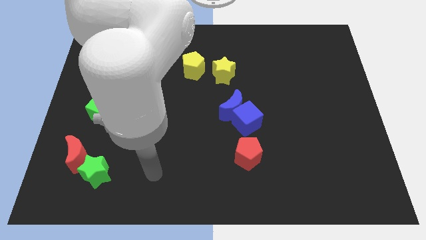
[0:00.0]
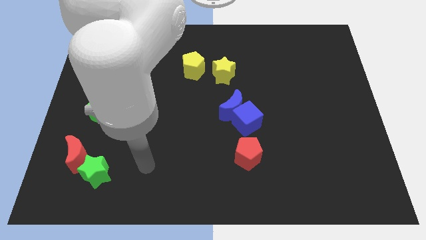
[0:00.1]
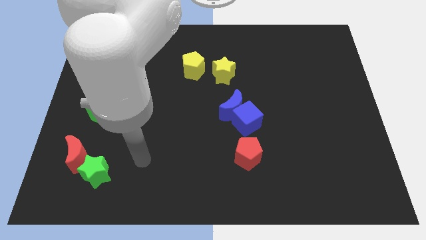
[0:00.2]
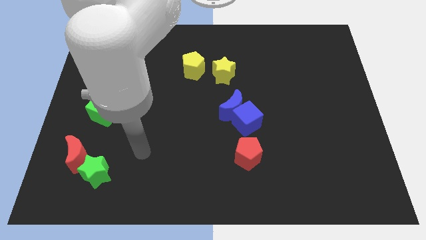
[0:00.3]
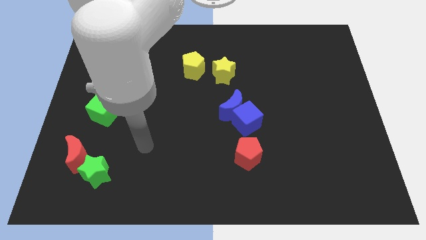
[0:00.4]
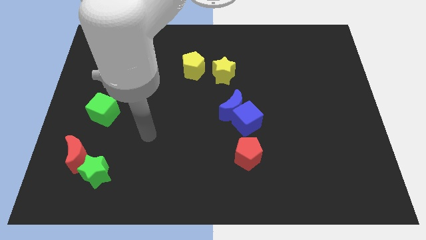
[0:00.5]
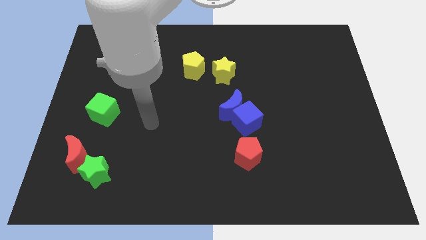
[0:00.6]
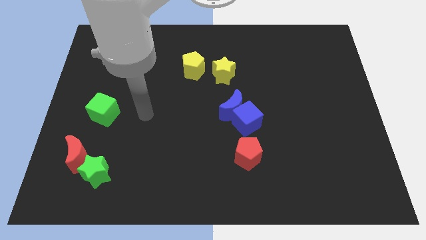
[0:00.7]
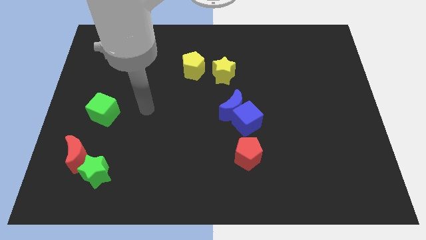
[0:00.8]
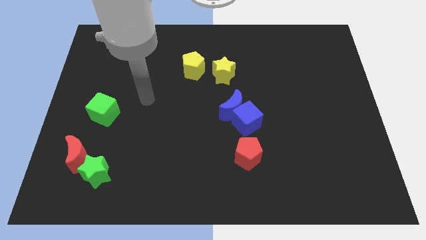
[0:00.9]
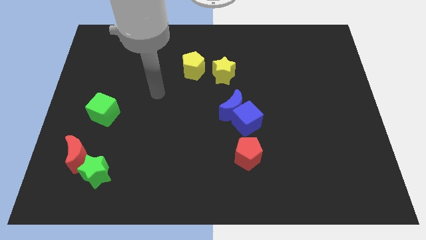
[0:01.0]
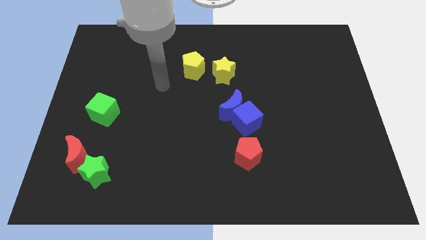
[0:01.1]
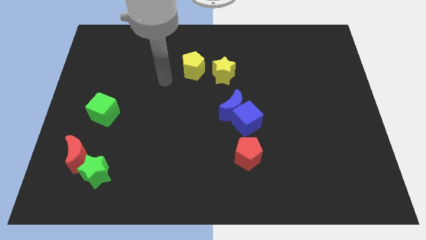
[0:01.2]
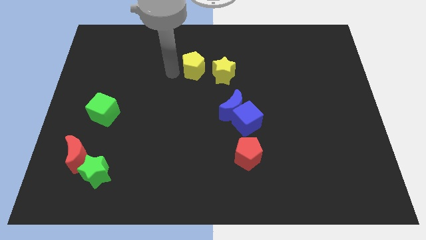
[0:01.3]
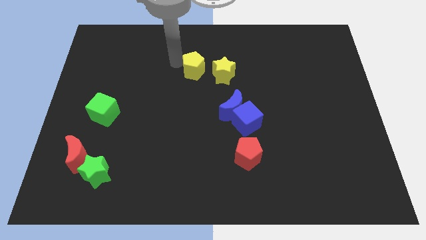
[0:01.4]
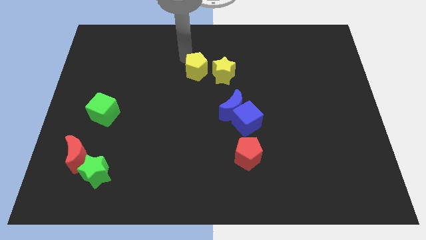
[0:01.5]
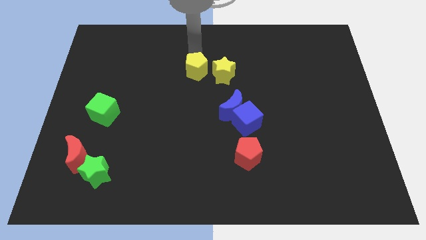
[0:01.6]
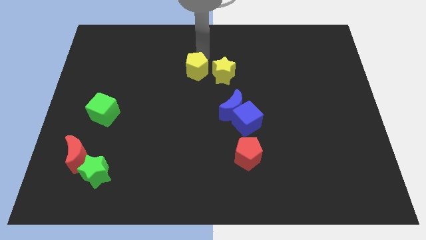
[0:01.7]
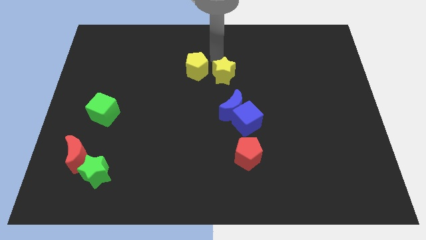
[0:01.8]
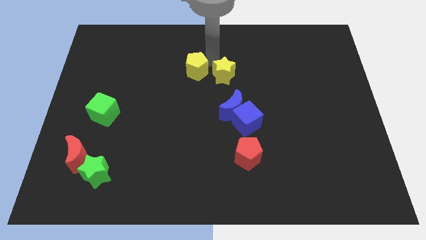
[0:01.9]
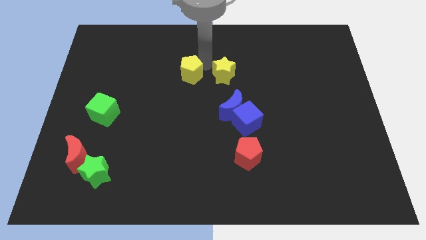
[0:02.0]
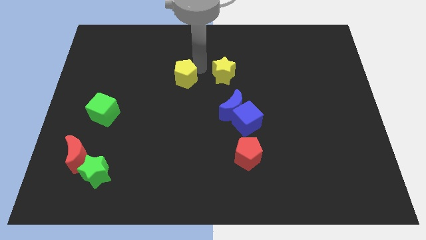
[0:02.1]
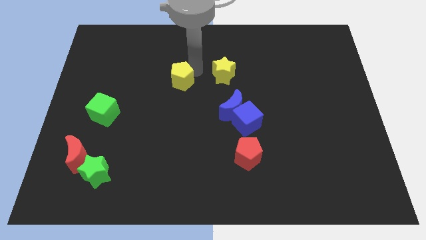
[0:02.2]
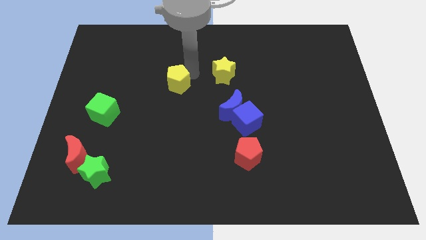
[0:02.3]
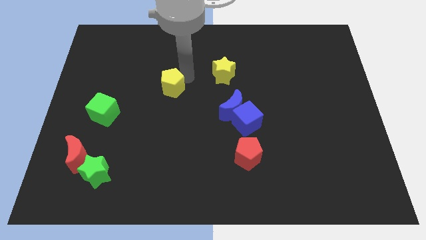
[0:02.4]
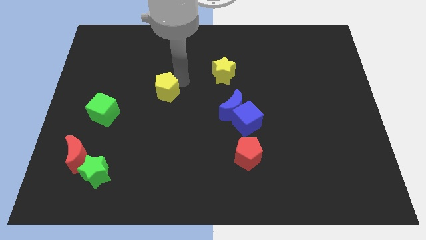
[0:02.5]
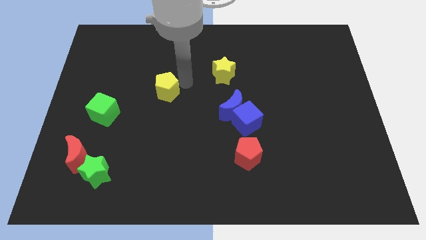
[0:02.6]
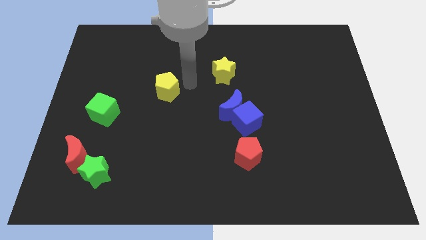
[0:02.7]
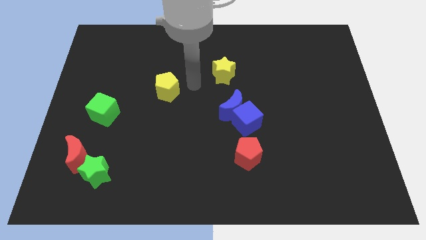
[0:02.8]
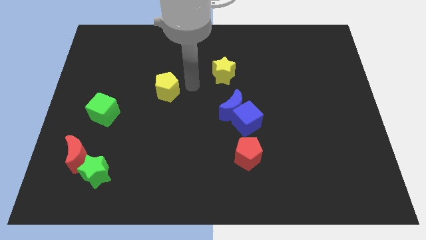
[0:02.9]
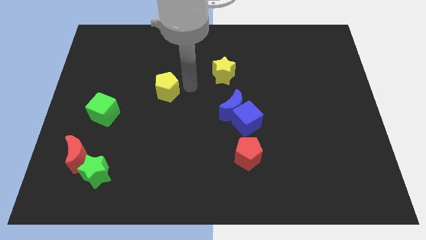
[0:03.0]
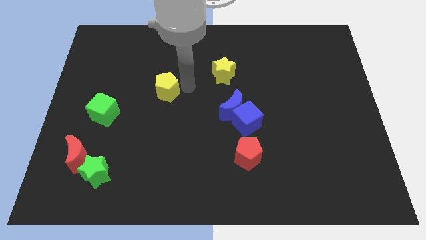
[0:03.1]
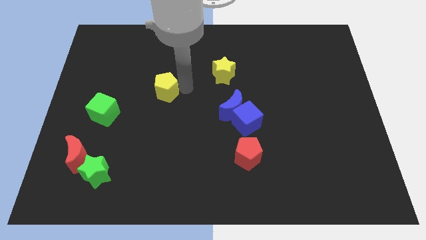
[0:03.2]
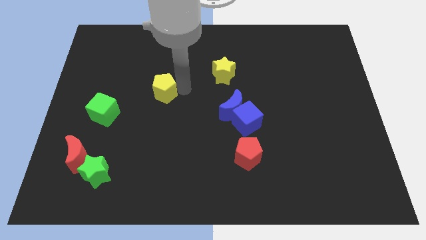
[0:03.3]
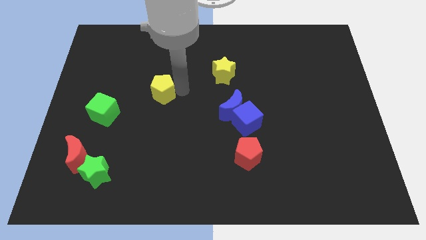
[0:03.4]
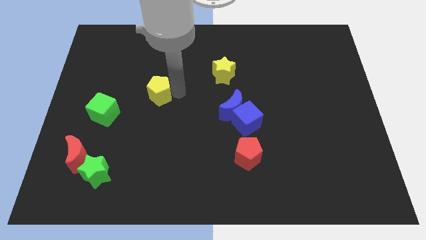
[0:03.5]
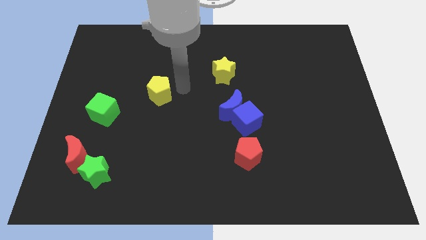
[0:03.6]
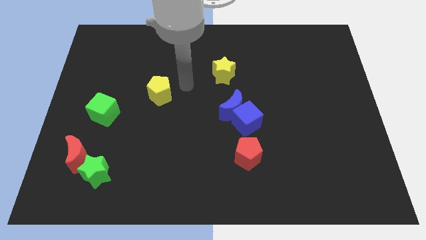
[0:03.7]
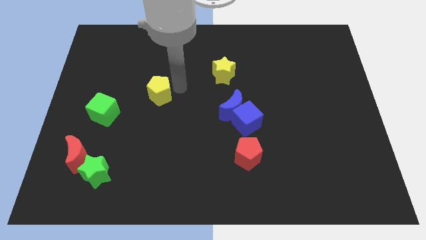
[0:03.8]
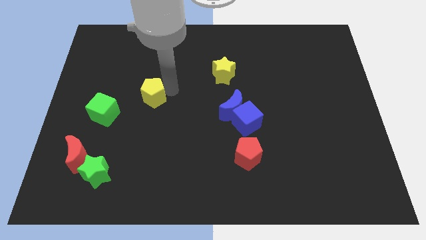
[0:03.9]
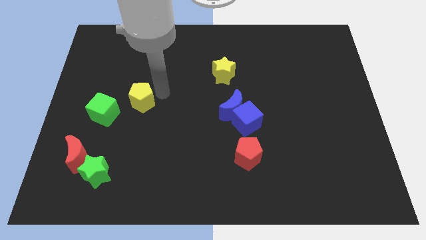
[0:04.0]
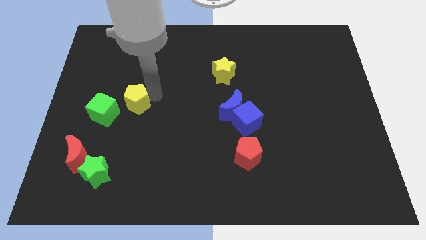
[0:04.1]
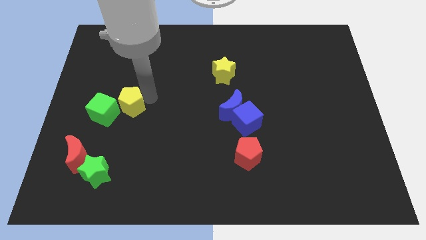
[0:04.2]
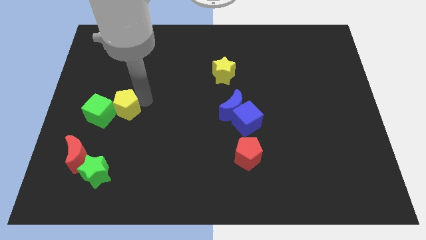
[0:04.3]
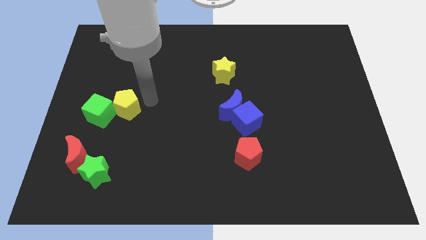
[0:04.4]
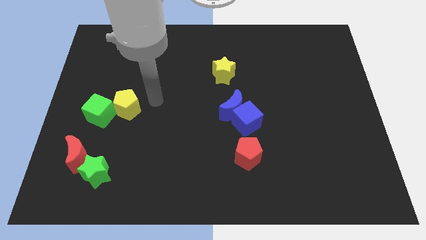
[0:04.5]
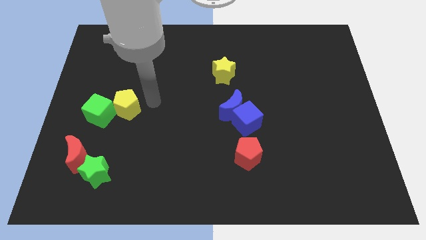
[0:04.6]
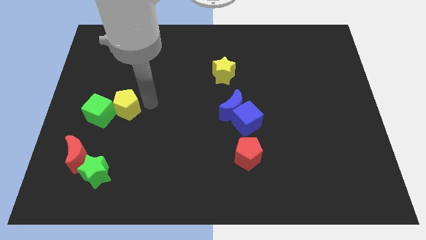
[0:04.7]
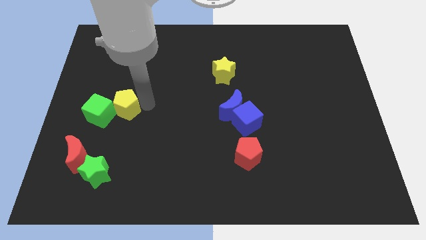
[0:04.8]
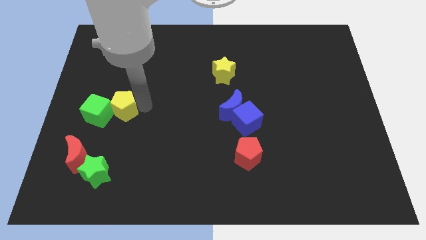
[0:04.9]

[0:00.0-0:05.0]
push the yellow pentagon next to the green cube

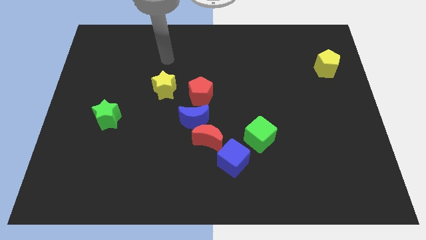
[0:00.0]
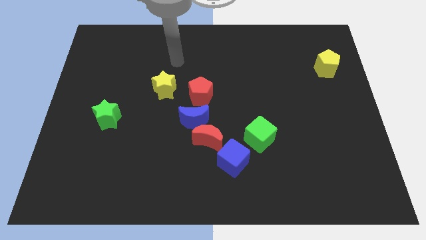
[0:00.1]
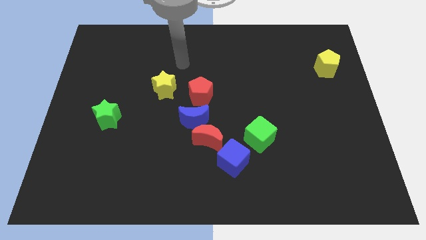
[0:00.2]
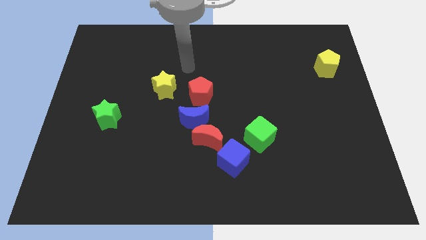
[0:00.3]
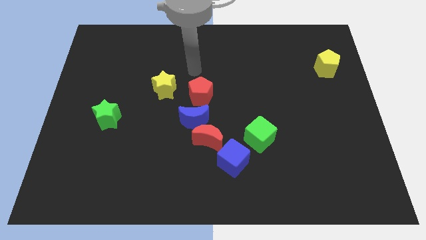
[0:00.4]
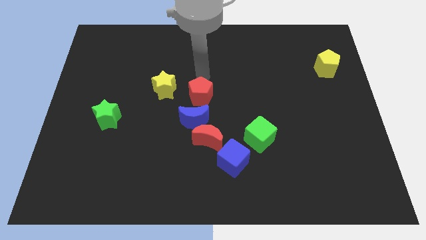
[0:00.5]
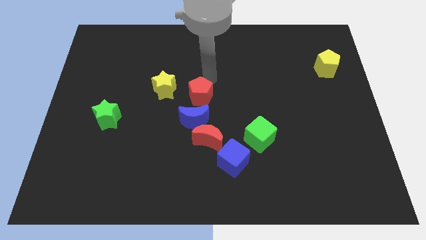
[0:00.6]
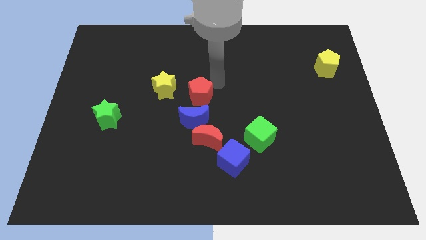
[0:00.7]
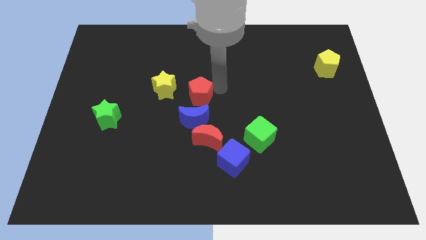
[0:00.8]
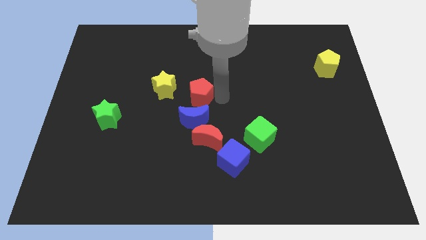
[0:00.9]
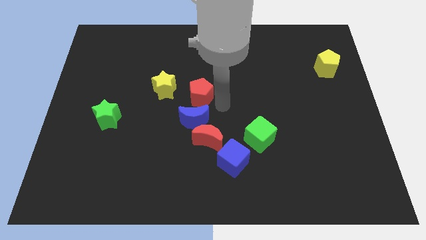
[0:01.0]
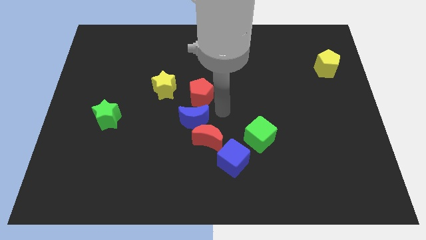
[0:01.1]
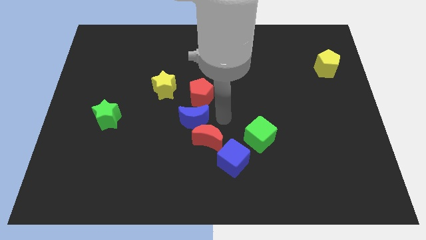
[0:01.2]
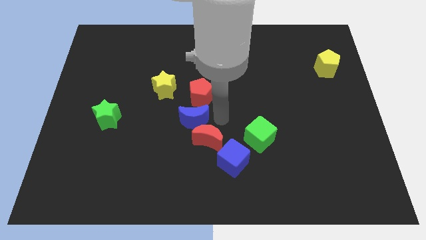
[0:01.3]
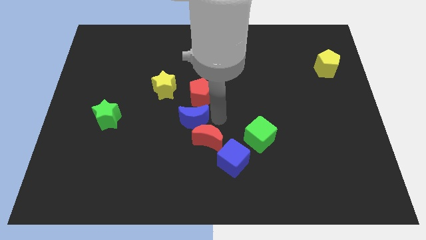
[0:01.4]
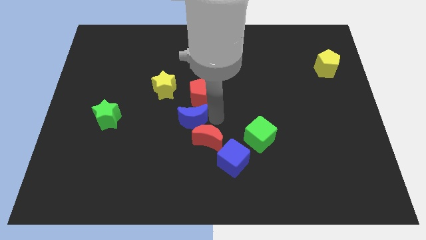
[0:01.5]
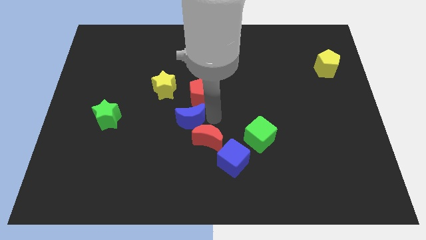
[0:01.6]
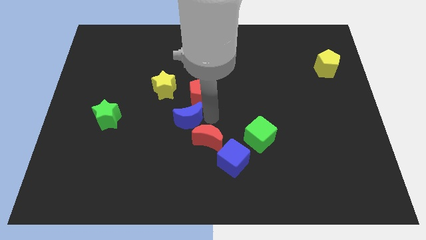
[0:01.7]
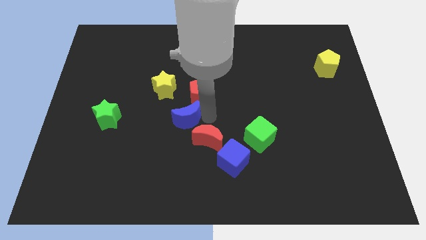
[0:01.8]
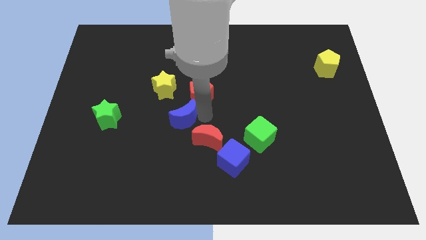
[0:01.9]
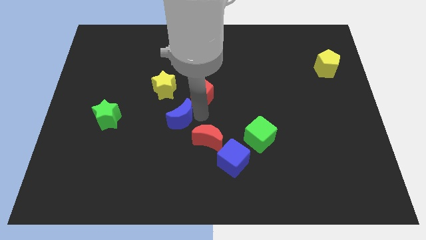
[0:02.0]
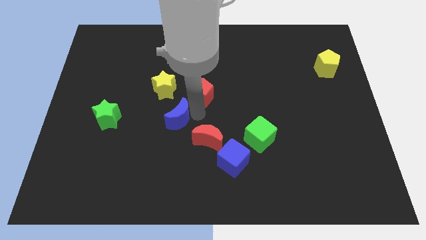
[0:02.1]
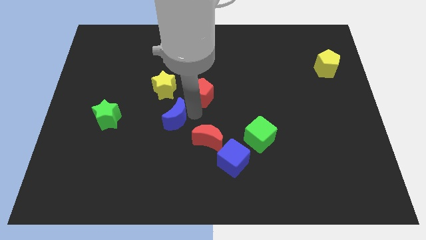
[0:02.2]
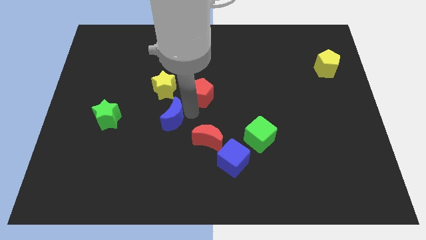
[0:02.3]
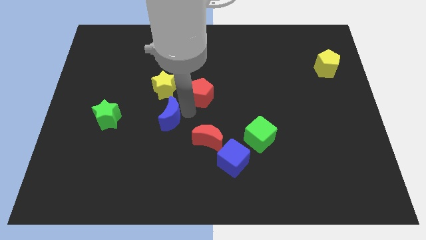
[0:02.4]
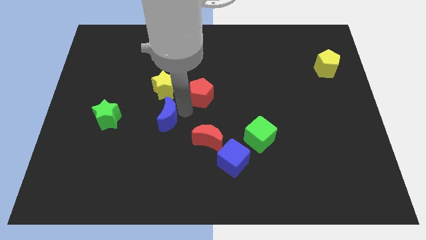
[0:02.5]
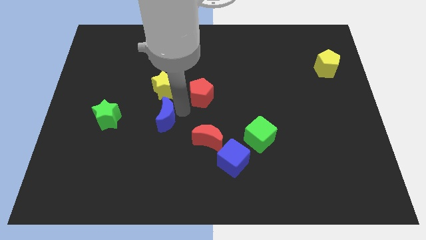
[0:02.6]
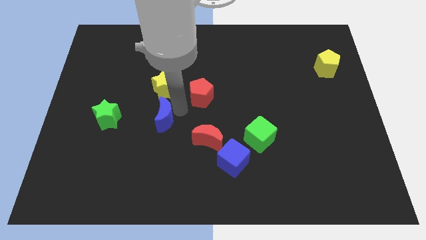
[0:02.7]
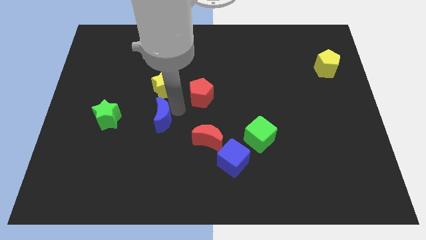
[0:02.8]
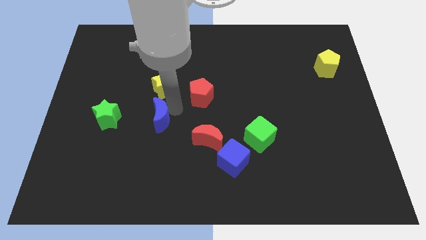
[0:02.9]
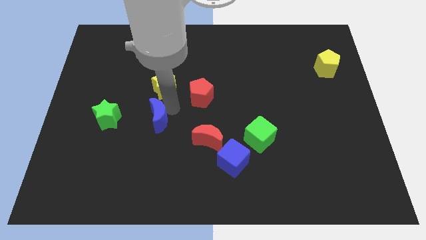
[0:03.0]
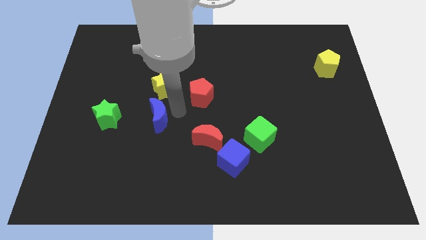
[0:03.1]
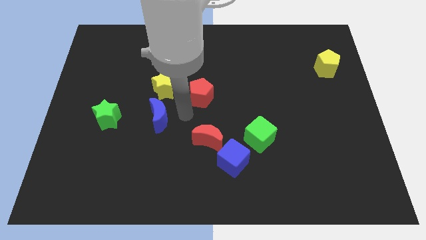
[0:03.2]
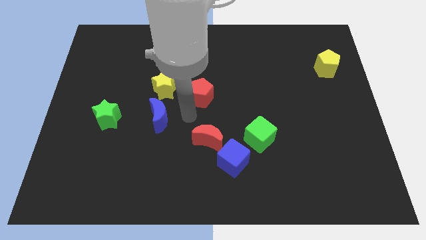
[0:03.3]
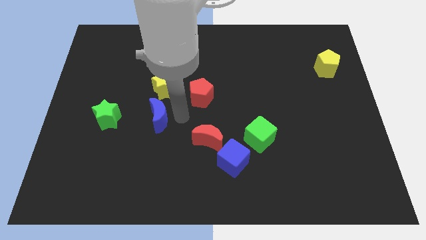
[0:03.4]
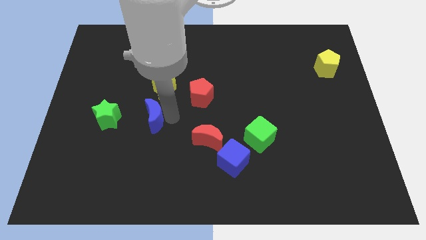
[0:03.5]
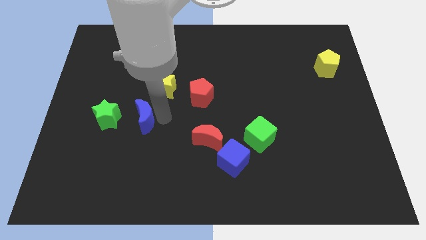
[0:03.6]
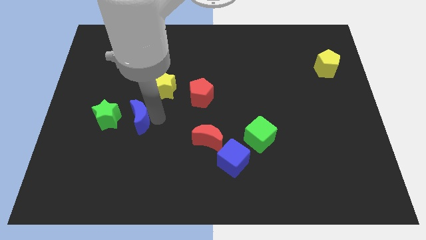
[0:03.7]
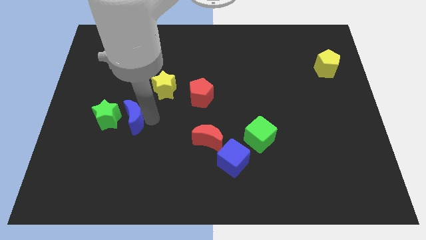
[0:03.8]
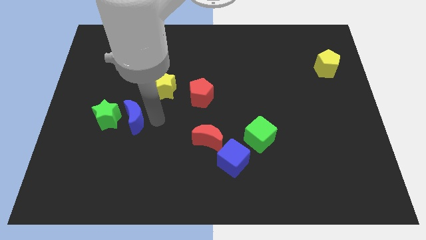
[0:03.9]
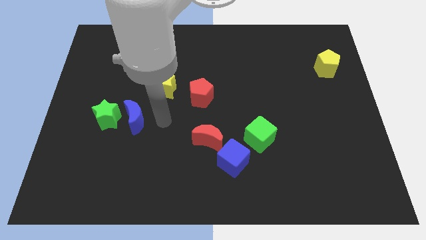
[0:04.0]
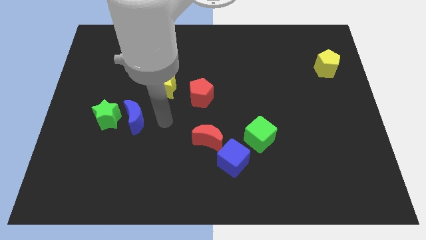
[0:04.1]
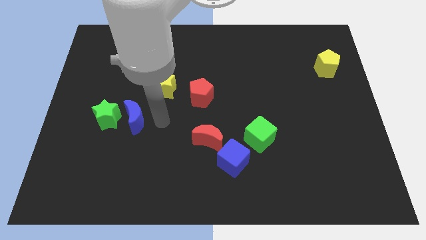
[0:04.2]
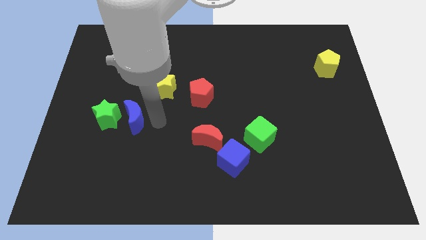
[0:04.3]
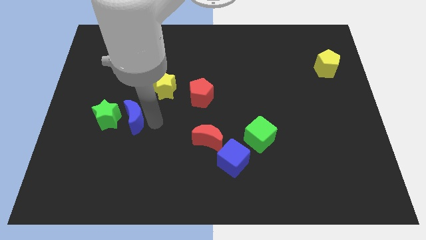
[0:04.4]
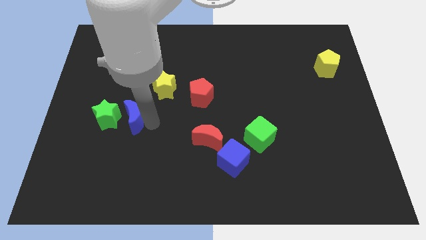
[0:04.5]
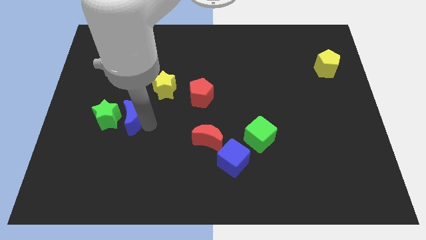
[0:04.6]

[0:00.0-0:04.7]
slide the blue moon to the green star
